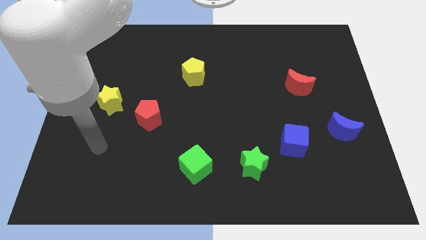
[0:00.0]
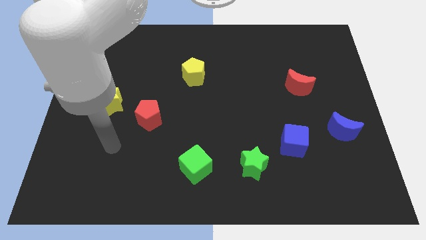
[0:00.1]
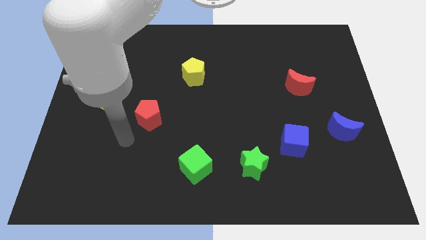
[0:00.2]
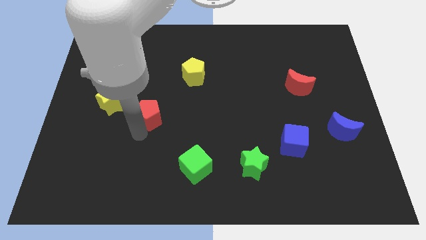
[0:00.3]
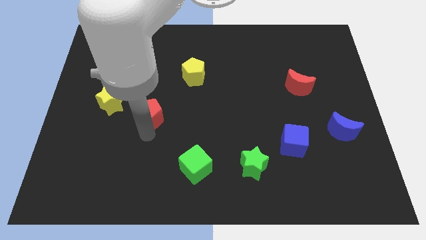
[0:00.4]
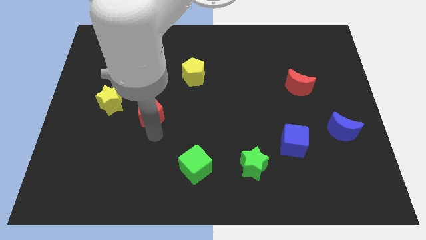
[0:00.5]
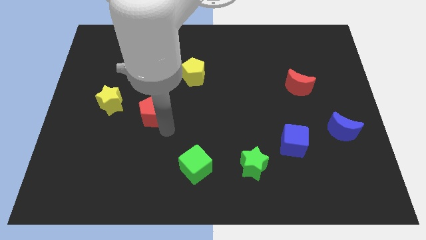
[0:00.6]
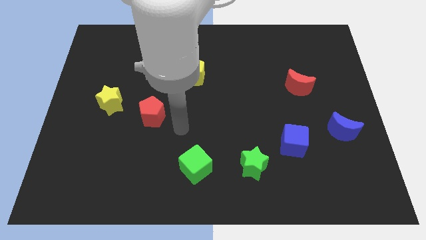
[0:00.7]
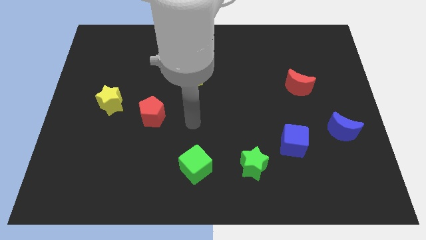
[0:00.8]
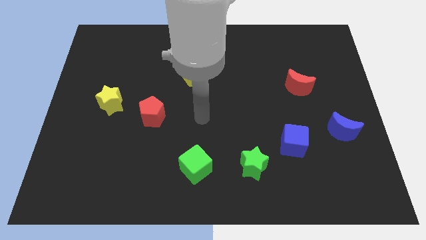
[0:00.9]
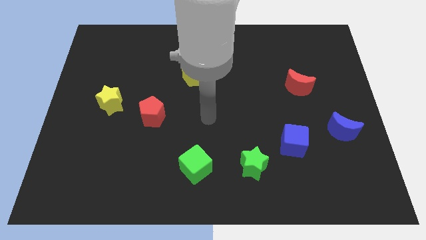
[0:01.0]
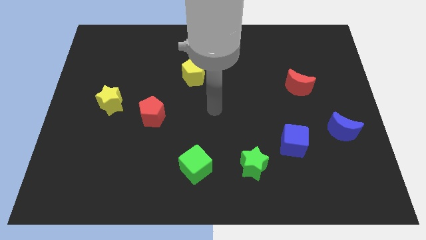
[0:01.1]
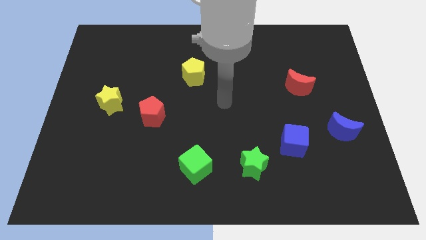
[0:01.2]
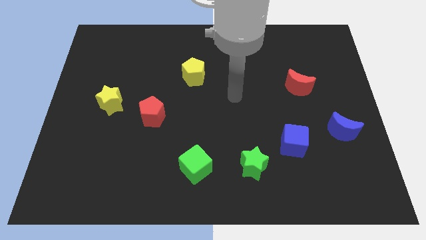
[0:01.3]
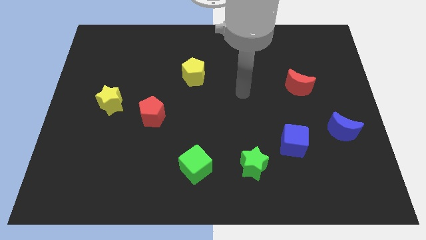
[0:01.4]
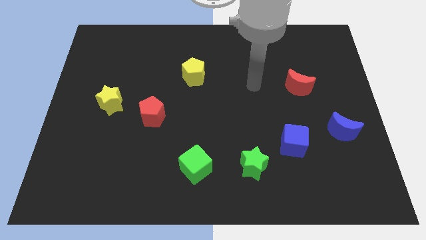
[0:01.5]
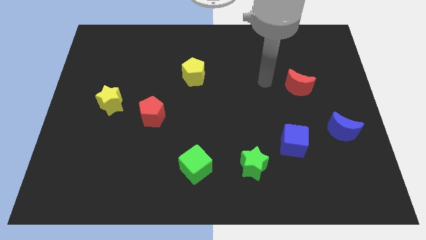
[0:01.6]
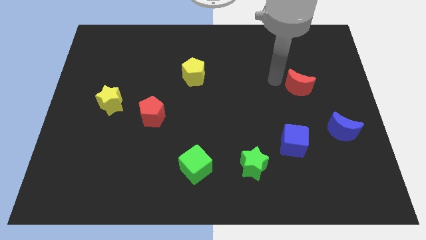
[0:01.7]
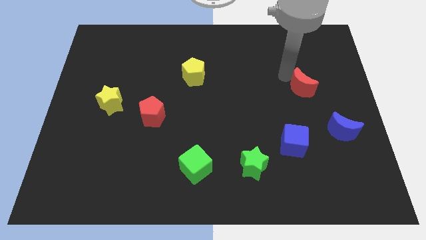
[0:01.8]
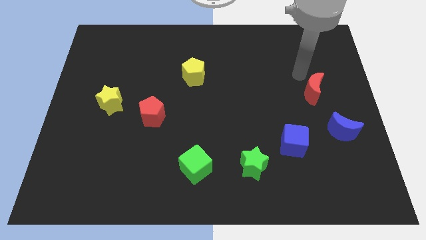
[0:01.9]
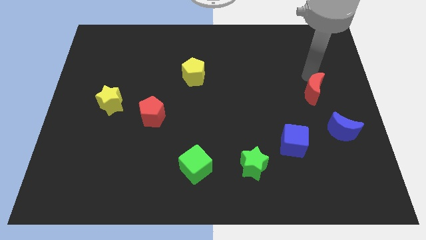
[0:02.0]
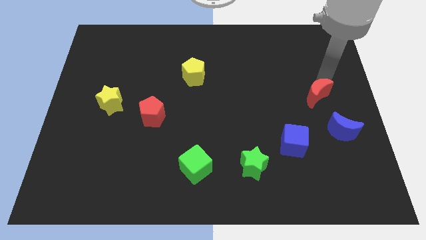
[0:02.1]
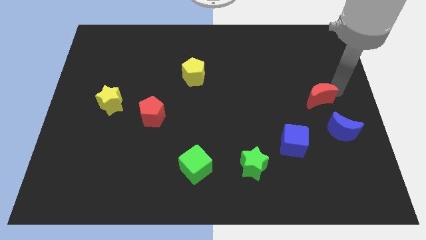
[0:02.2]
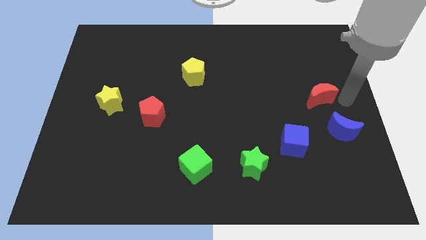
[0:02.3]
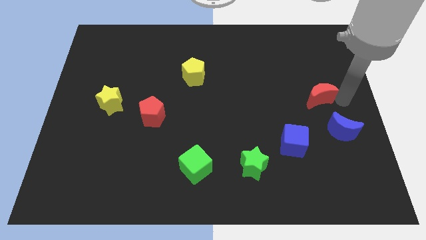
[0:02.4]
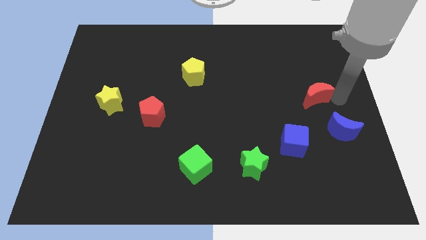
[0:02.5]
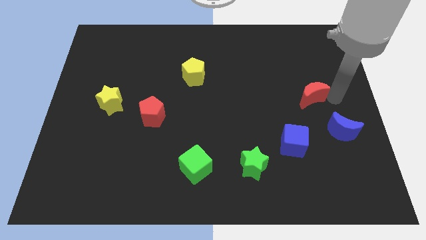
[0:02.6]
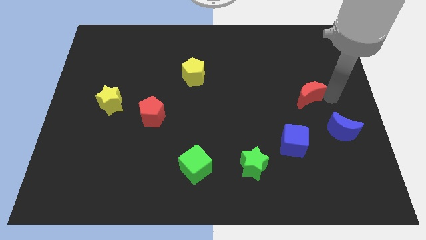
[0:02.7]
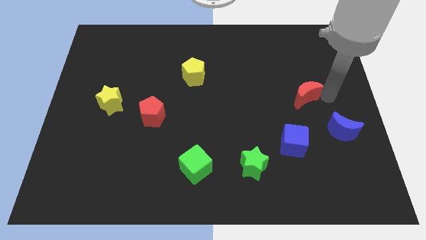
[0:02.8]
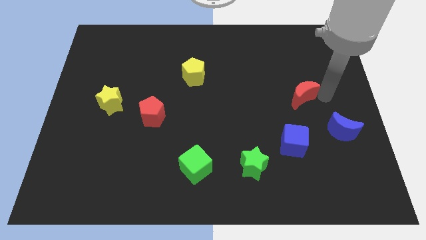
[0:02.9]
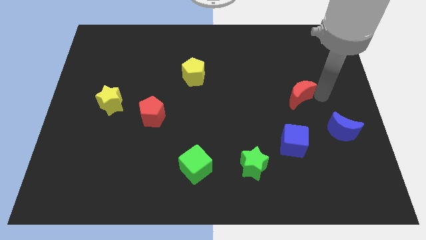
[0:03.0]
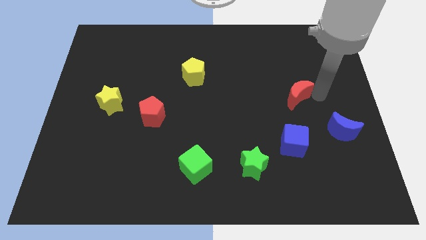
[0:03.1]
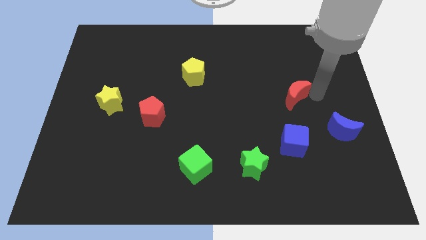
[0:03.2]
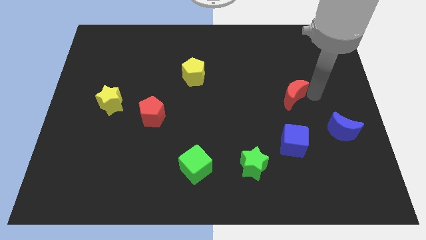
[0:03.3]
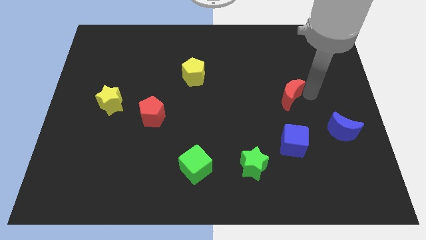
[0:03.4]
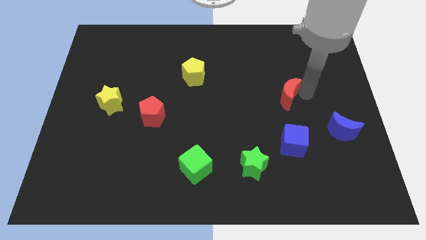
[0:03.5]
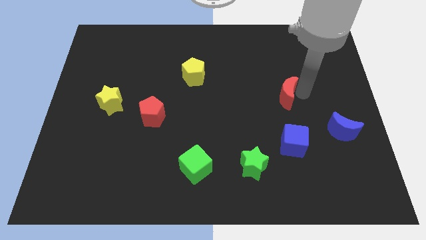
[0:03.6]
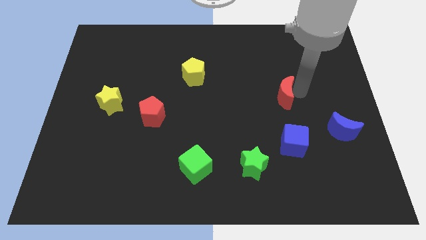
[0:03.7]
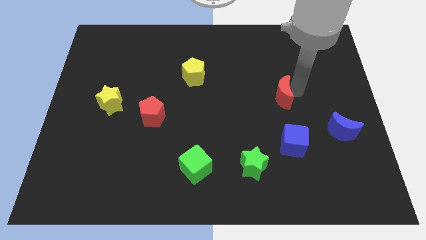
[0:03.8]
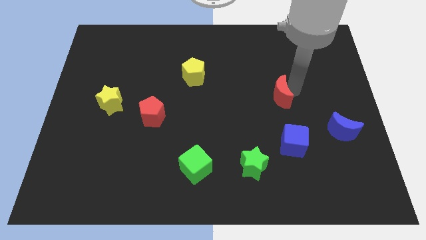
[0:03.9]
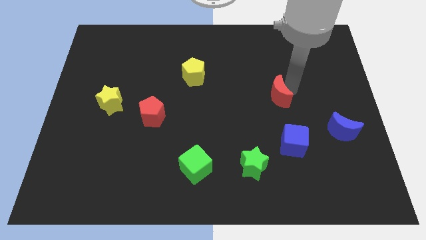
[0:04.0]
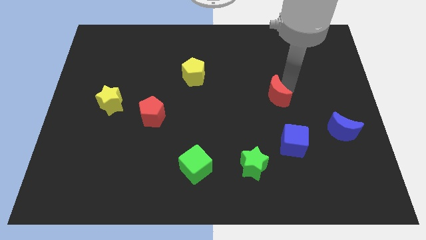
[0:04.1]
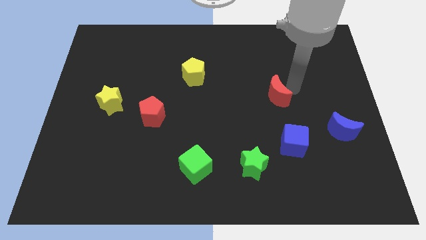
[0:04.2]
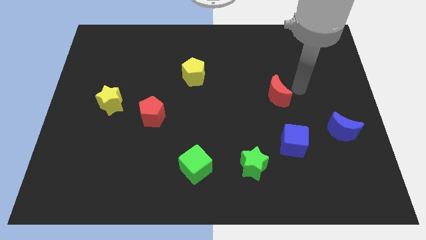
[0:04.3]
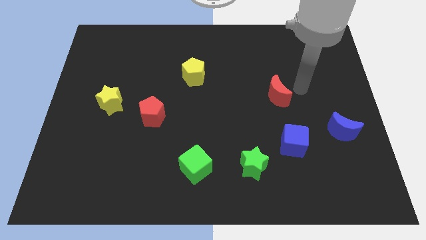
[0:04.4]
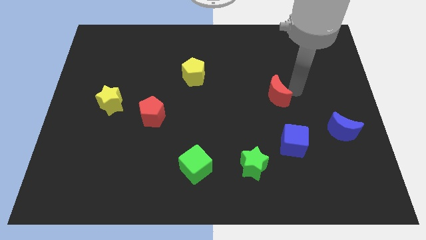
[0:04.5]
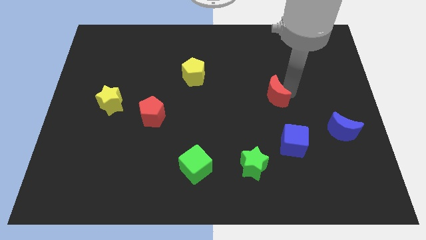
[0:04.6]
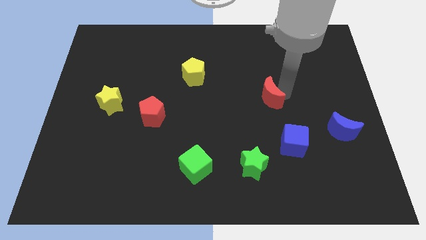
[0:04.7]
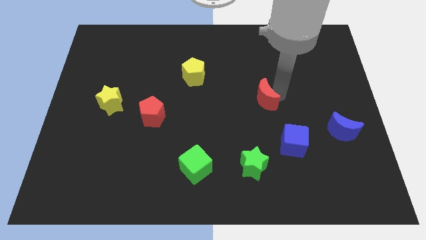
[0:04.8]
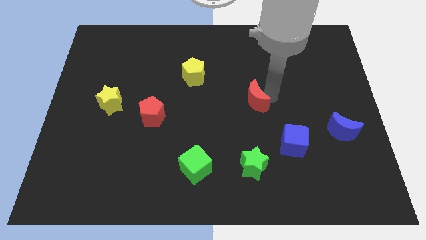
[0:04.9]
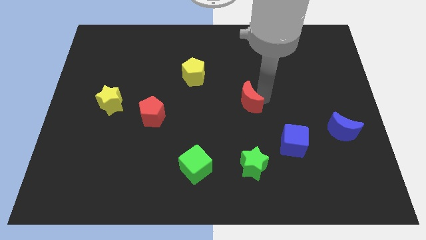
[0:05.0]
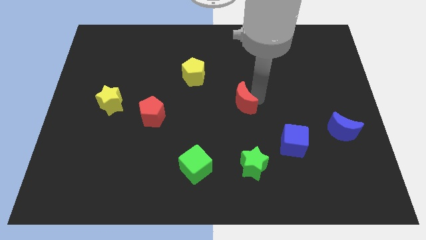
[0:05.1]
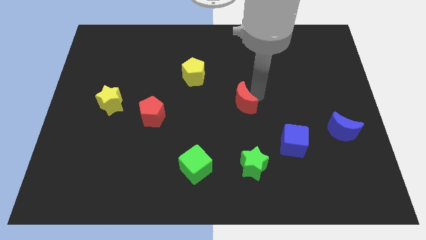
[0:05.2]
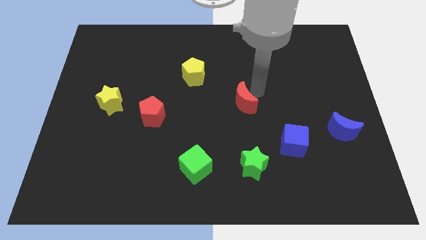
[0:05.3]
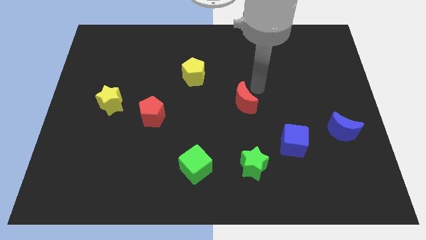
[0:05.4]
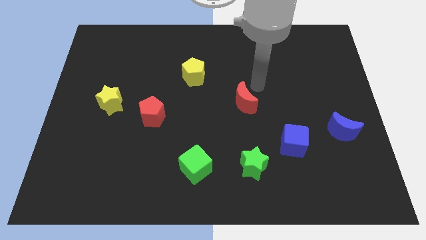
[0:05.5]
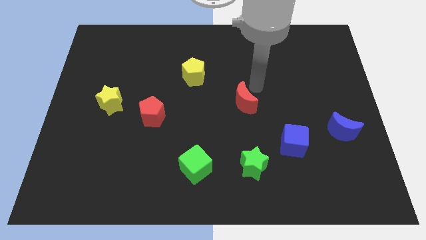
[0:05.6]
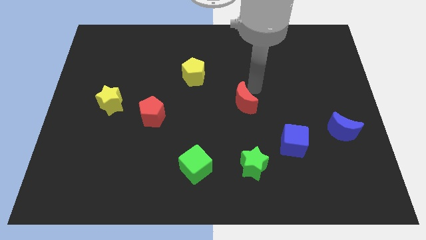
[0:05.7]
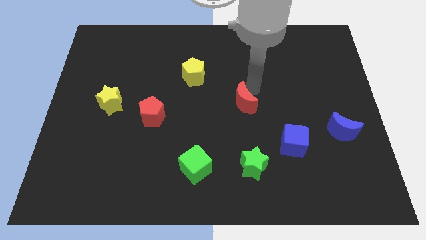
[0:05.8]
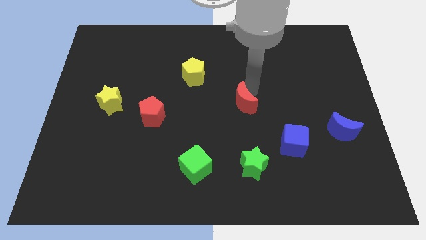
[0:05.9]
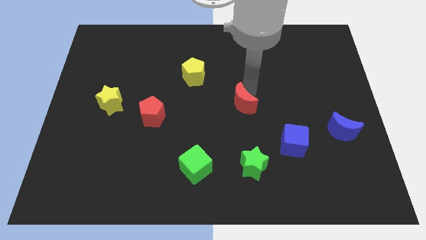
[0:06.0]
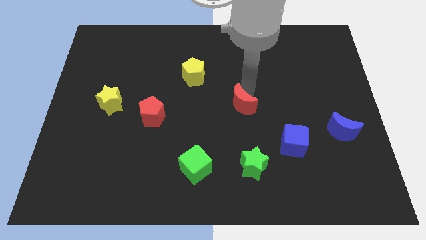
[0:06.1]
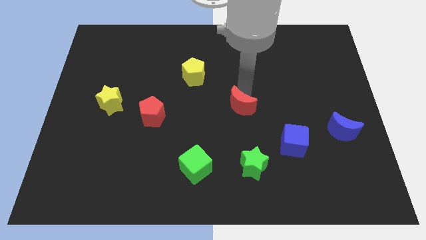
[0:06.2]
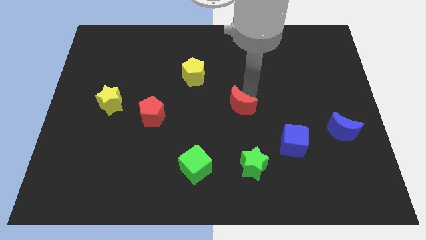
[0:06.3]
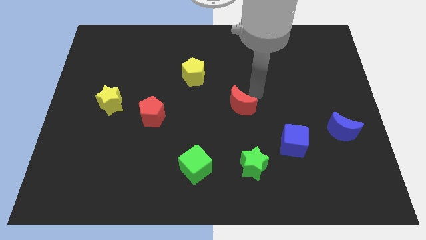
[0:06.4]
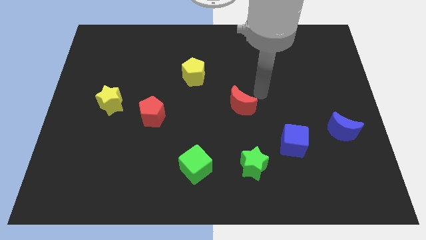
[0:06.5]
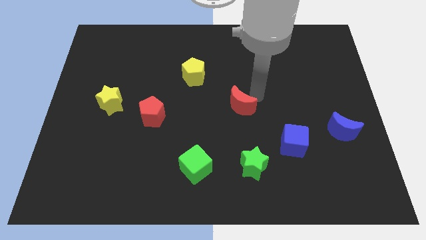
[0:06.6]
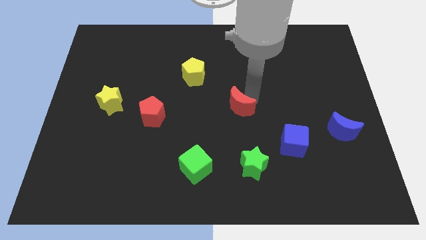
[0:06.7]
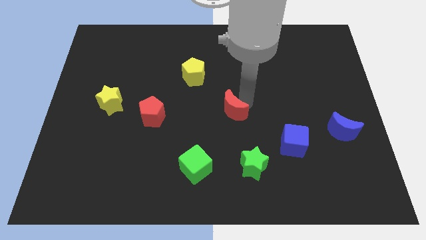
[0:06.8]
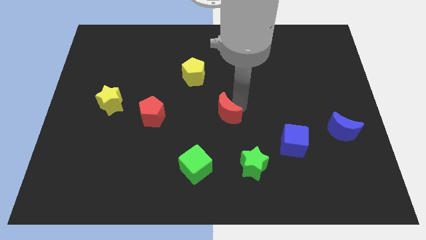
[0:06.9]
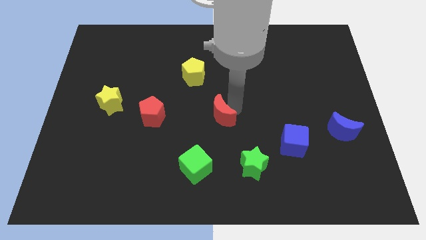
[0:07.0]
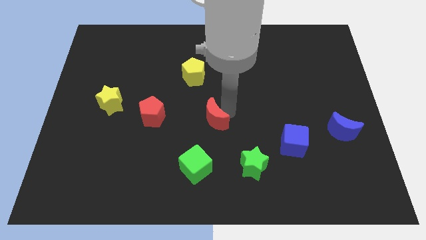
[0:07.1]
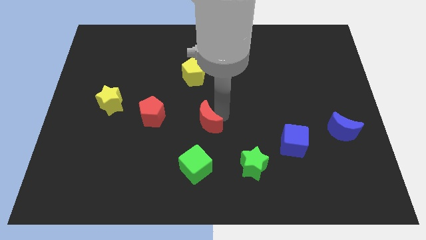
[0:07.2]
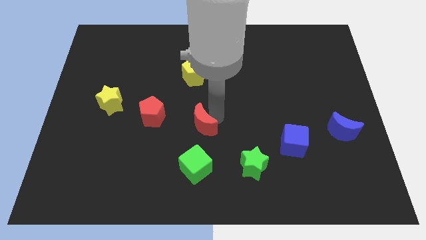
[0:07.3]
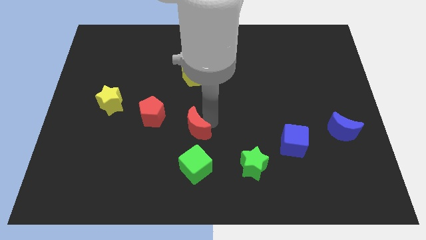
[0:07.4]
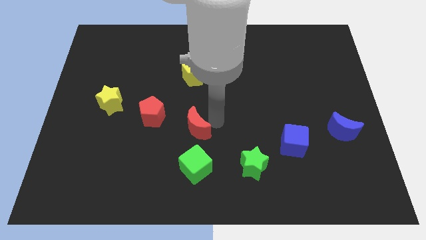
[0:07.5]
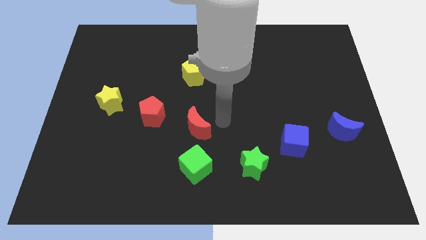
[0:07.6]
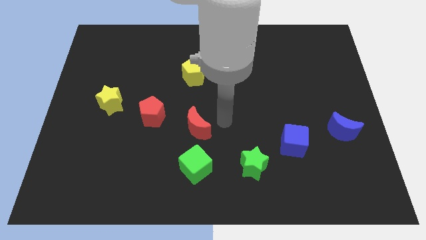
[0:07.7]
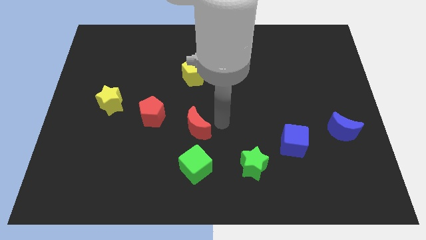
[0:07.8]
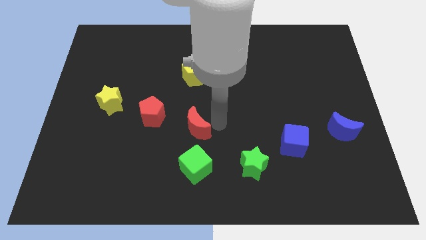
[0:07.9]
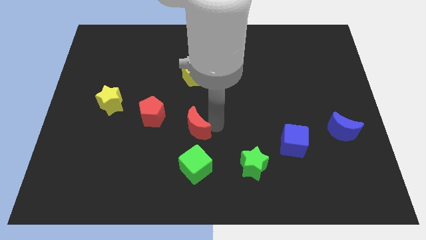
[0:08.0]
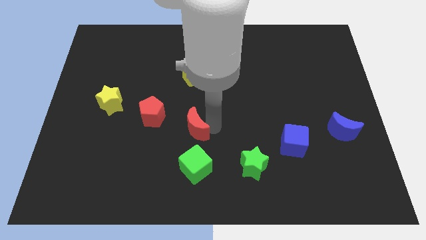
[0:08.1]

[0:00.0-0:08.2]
push the red moon to the bottom right side of the red pentagon
